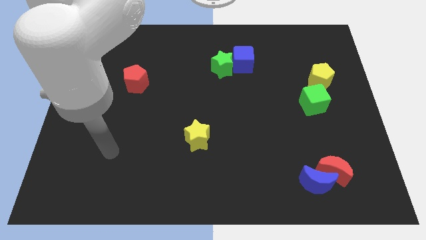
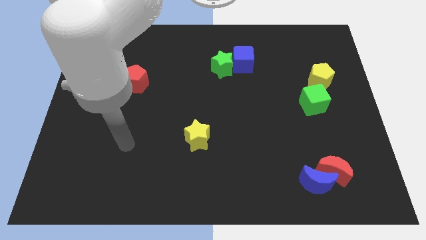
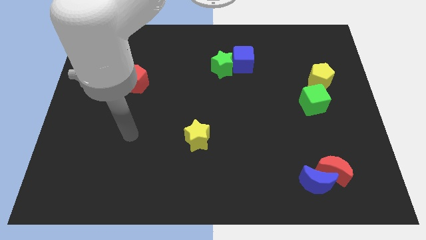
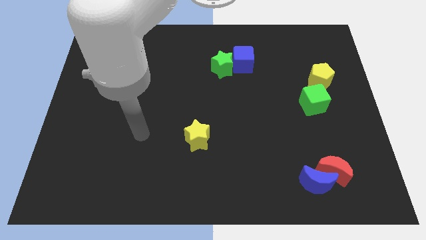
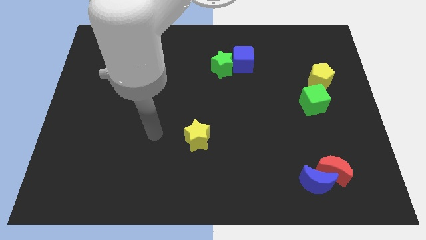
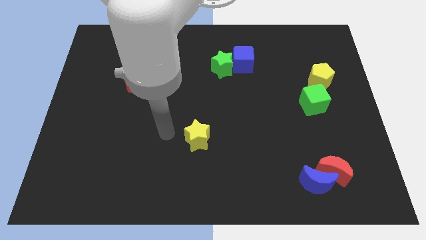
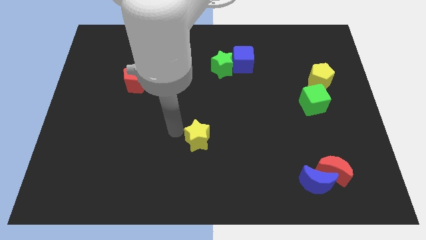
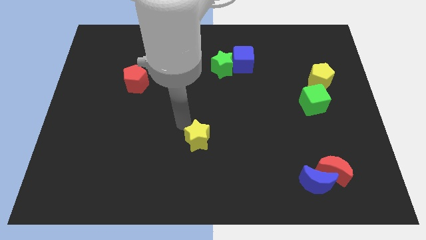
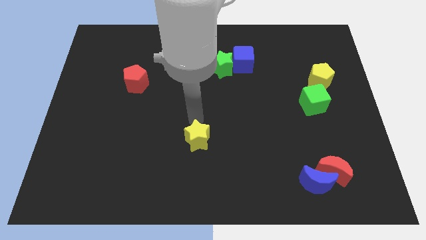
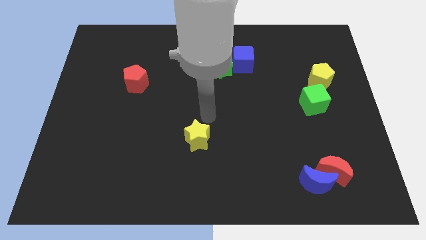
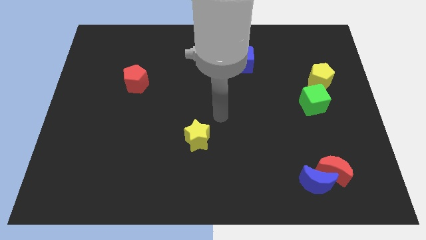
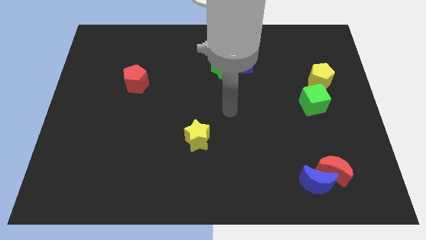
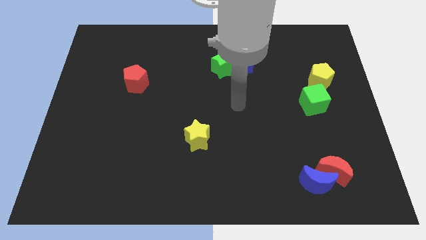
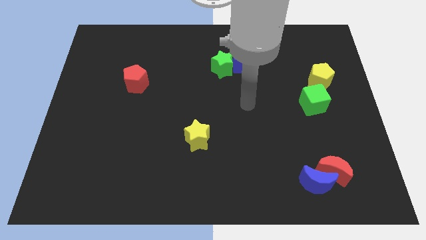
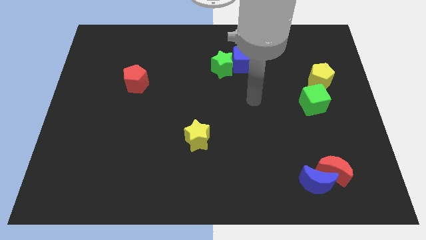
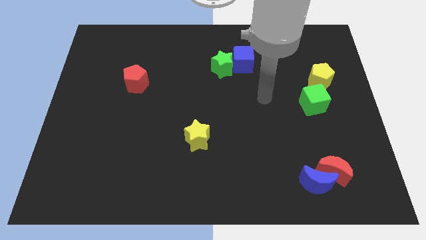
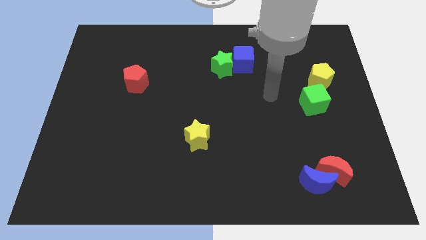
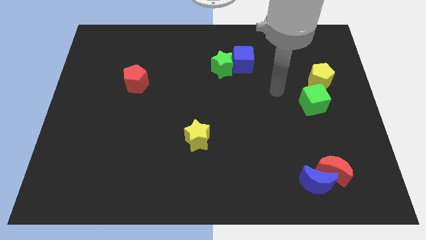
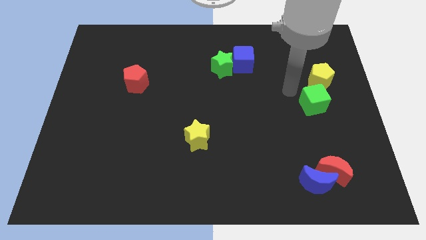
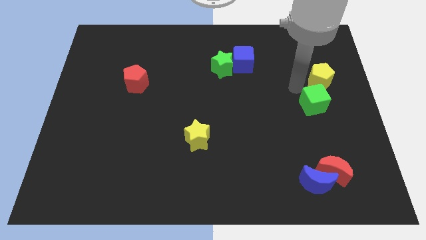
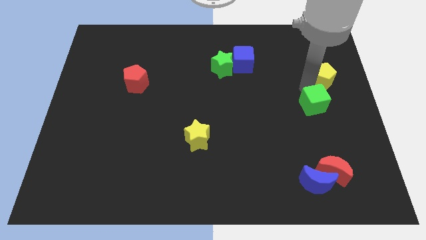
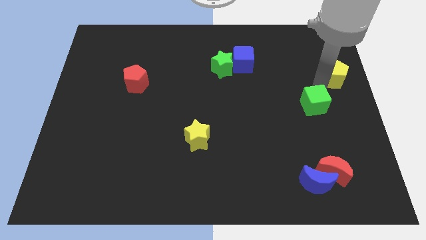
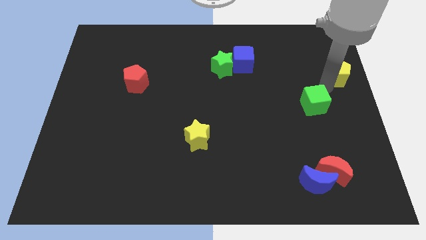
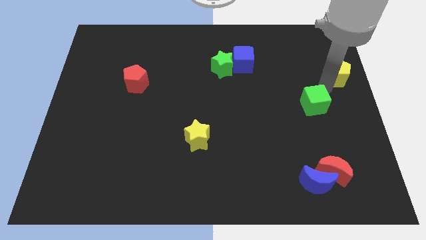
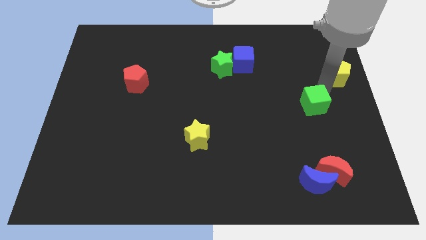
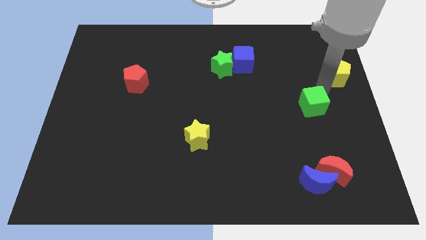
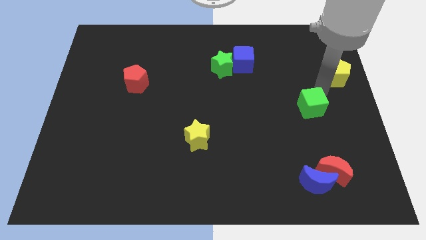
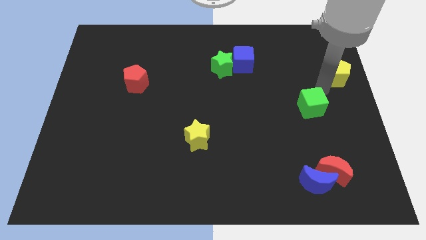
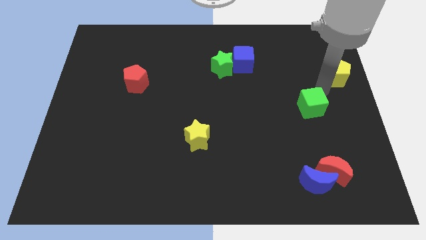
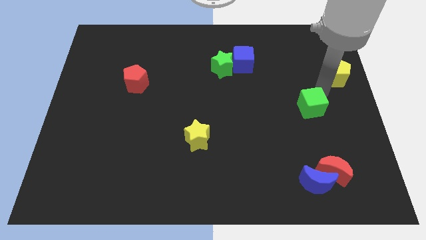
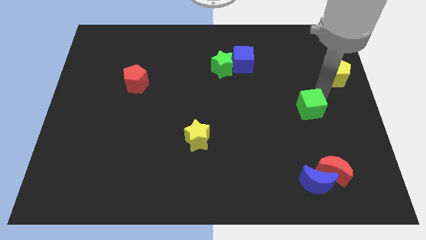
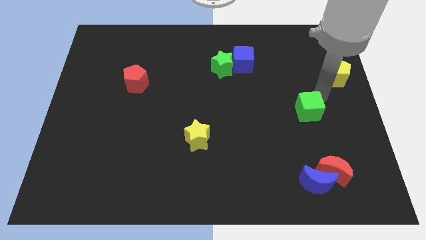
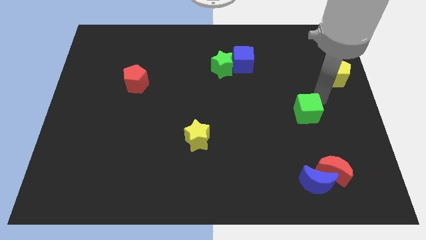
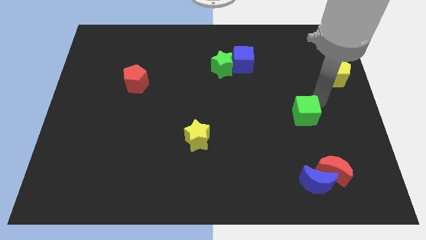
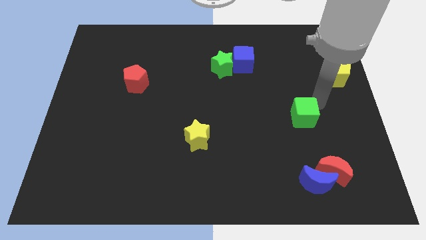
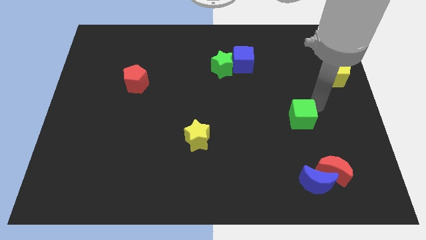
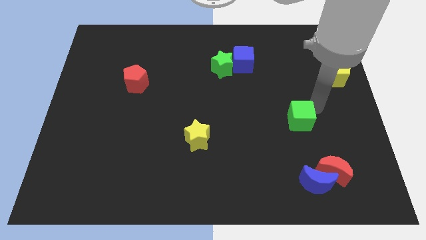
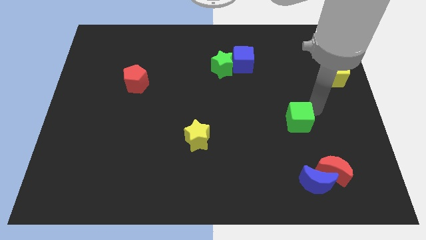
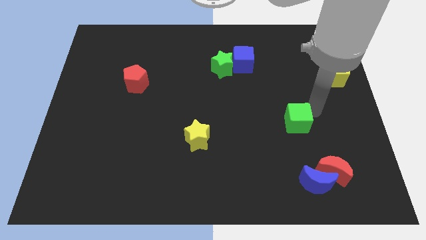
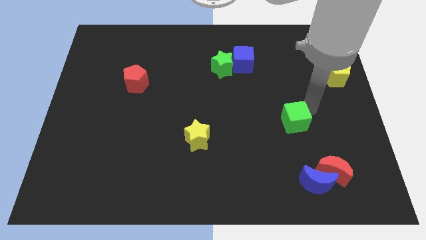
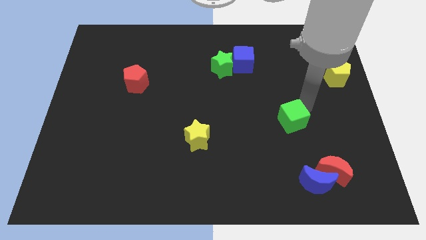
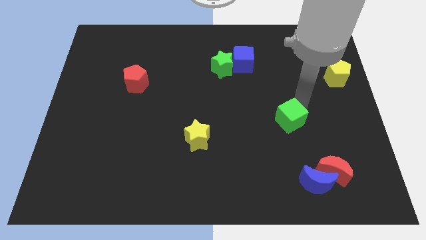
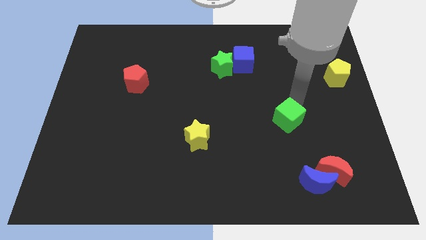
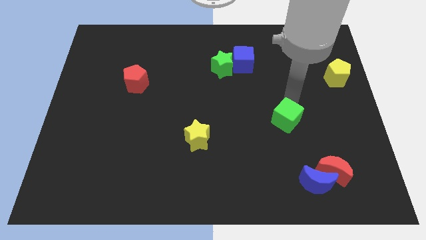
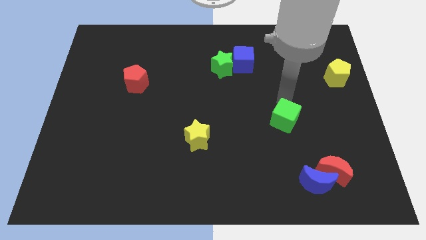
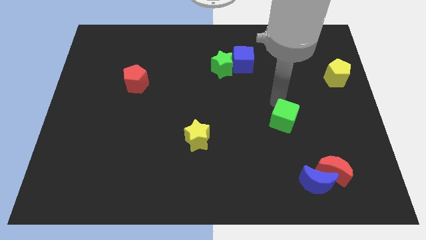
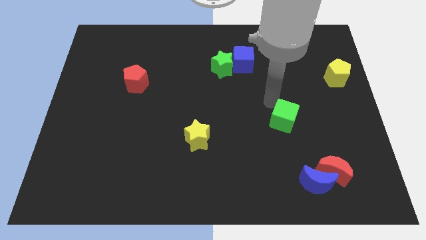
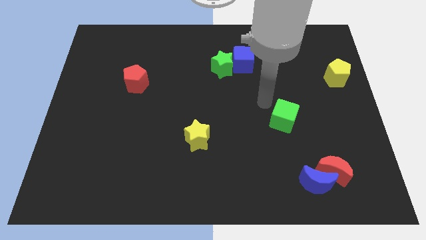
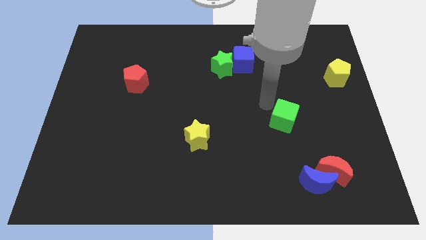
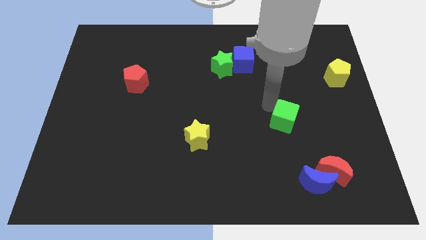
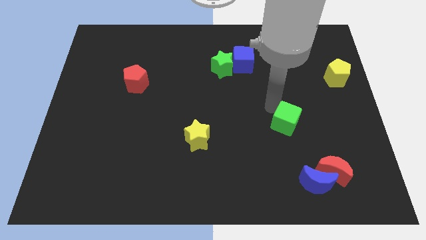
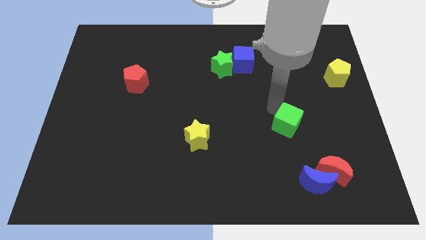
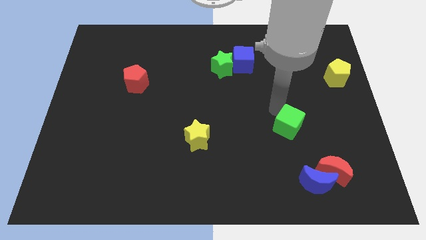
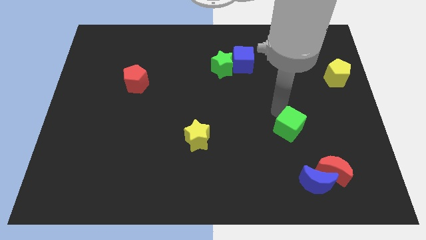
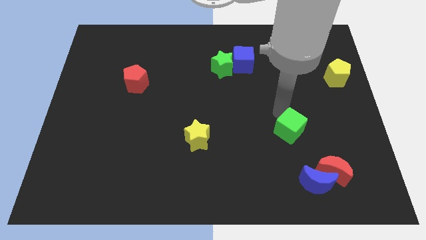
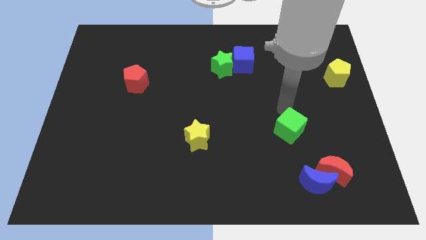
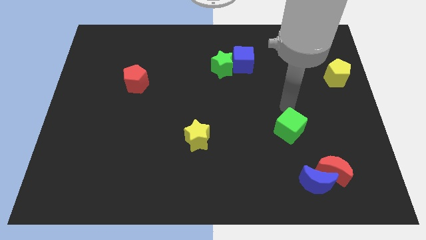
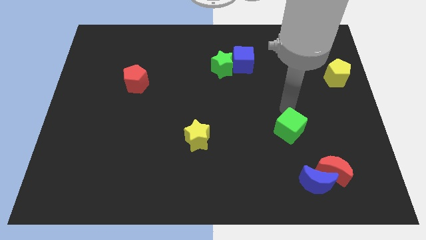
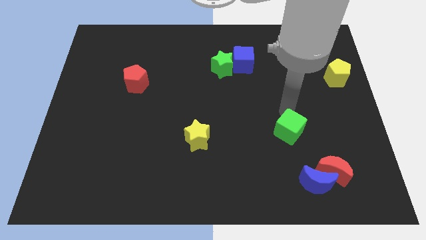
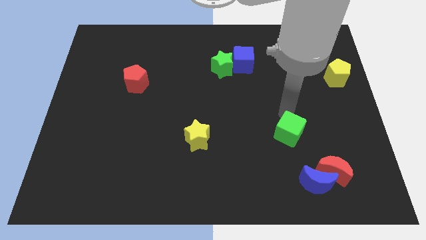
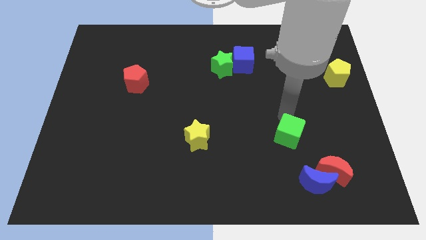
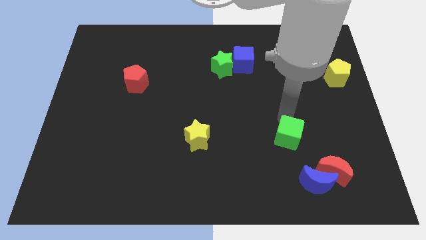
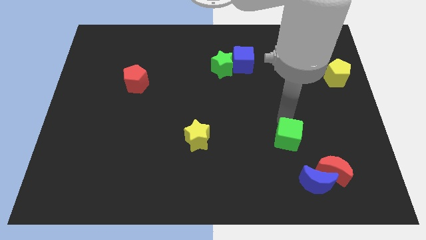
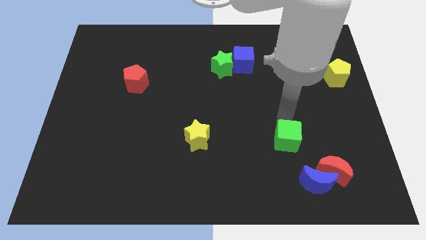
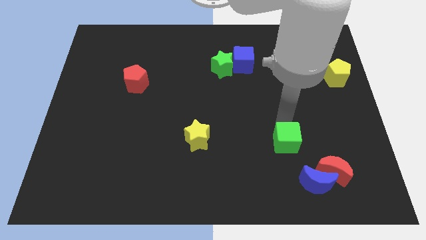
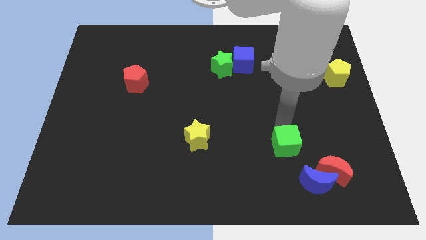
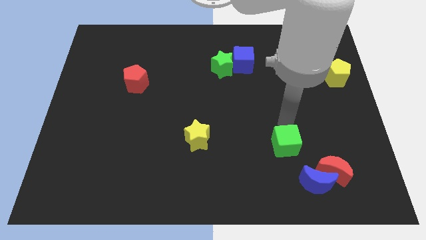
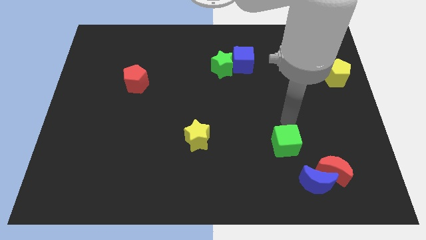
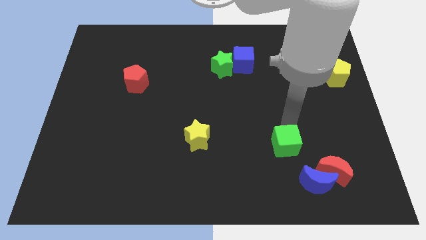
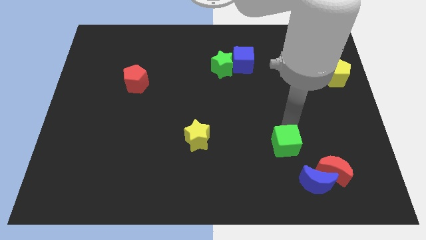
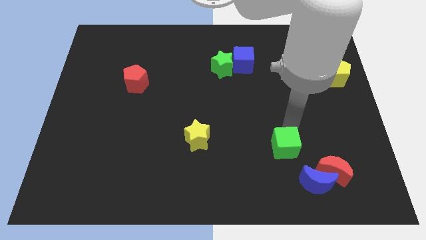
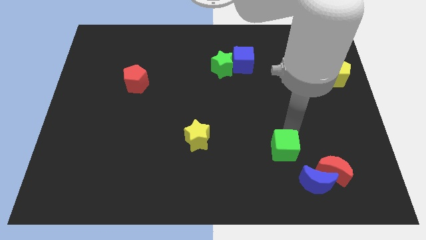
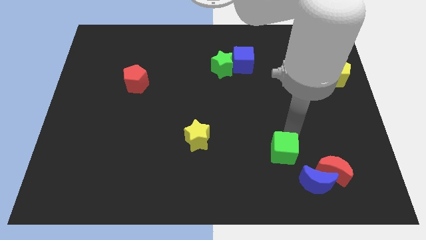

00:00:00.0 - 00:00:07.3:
slide the green cube left of the red moon
